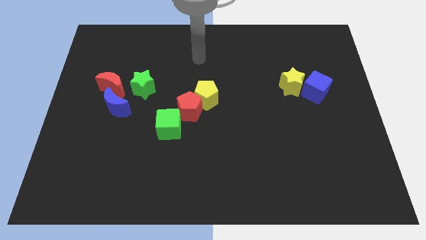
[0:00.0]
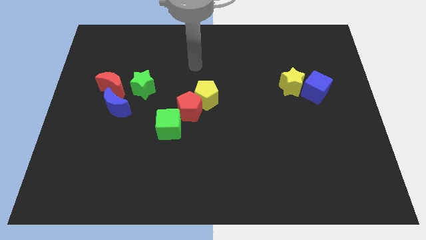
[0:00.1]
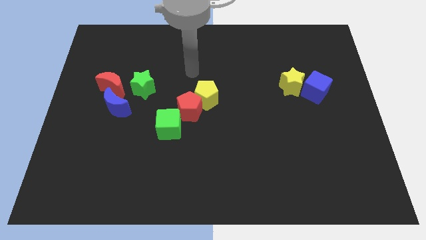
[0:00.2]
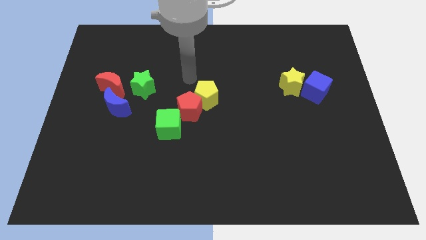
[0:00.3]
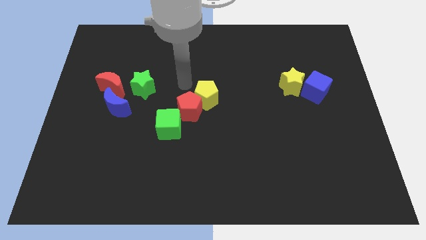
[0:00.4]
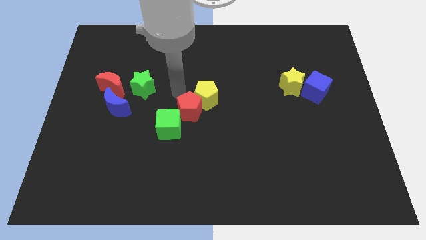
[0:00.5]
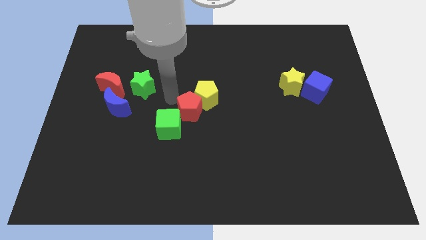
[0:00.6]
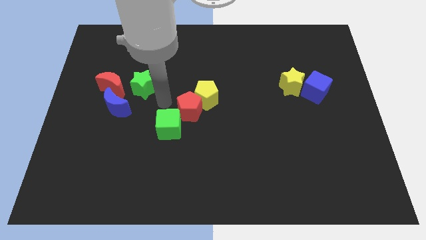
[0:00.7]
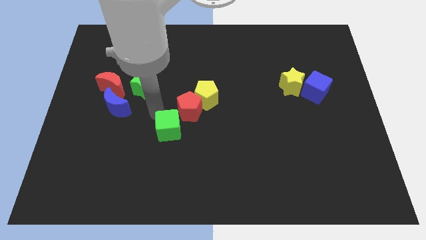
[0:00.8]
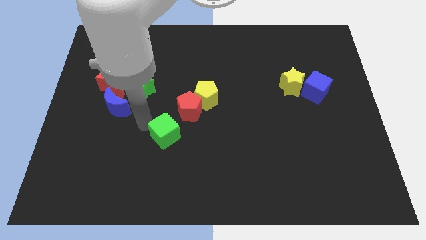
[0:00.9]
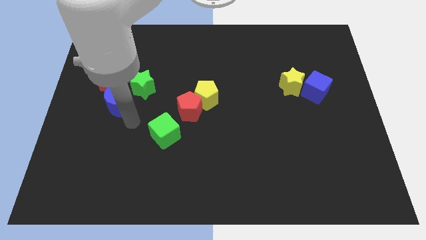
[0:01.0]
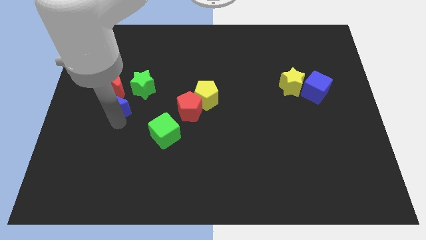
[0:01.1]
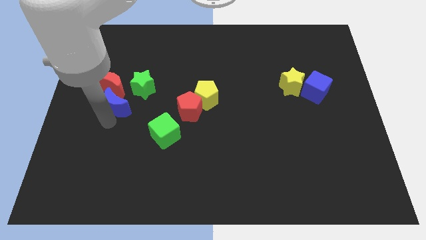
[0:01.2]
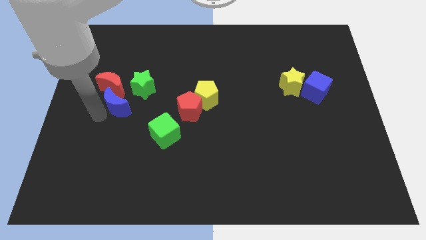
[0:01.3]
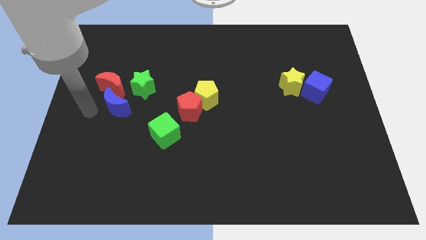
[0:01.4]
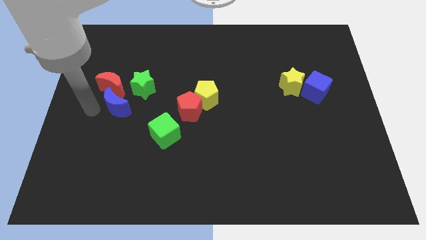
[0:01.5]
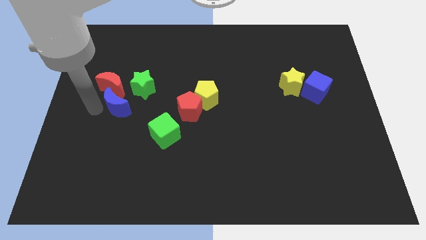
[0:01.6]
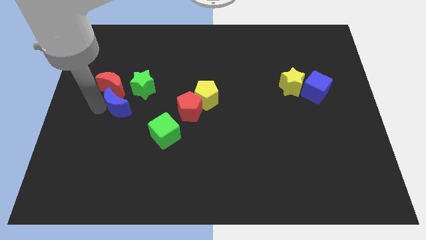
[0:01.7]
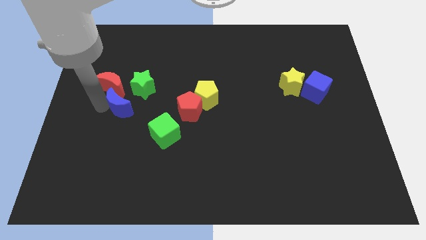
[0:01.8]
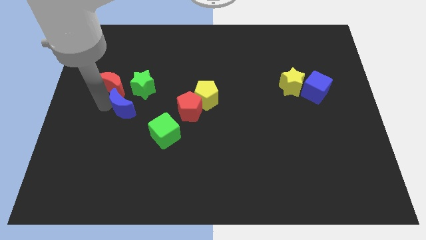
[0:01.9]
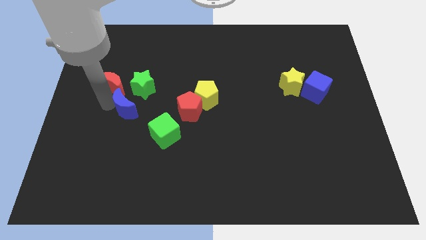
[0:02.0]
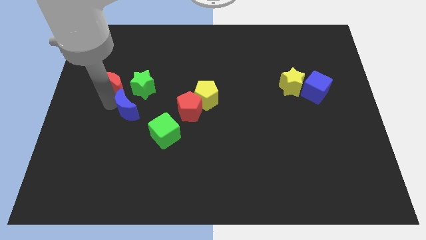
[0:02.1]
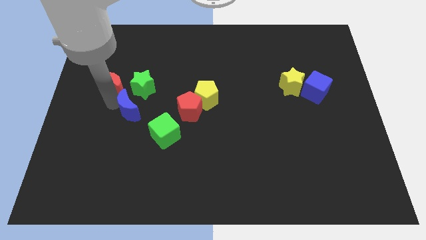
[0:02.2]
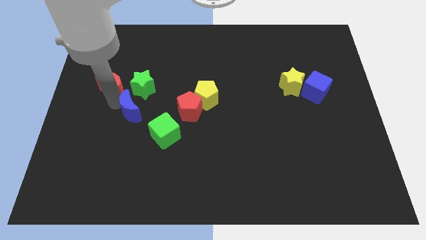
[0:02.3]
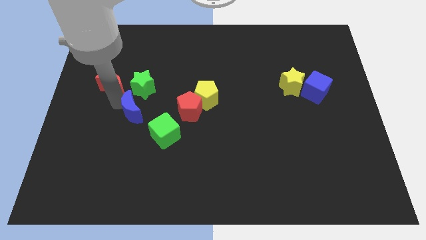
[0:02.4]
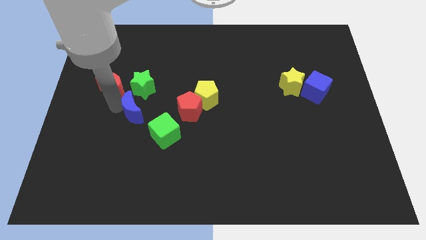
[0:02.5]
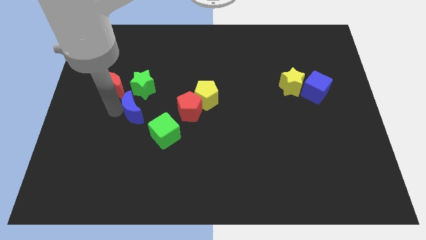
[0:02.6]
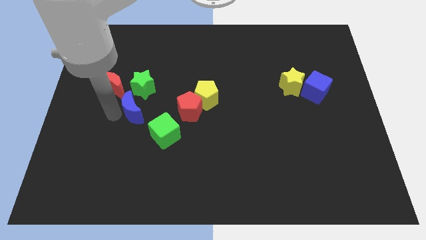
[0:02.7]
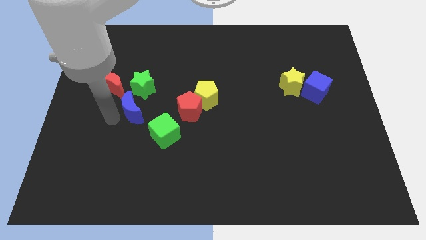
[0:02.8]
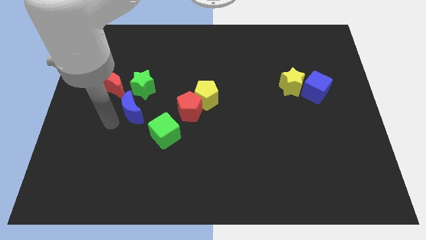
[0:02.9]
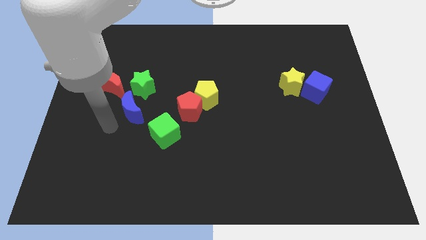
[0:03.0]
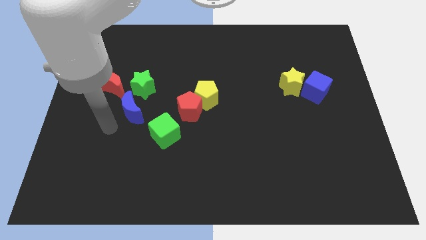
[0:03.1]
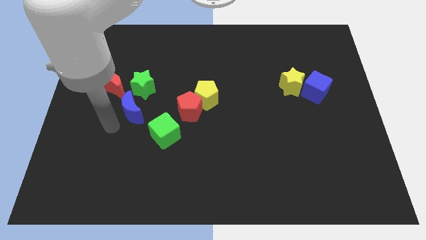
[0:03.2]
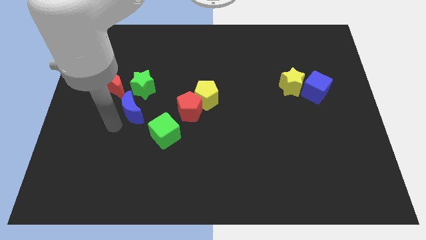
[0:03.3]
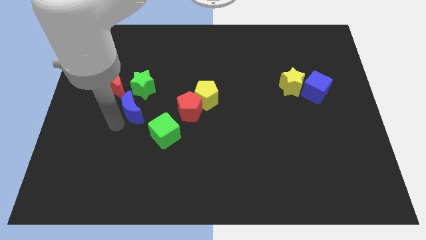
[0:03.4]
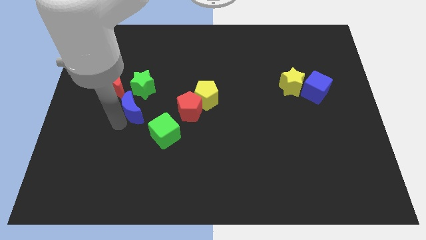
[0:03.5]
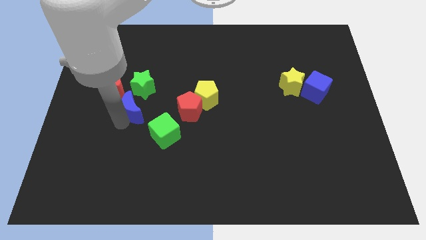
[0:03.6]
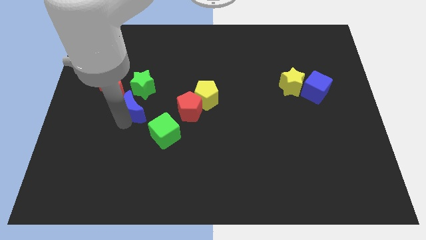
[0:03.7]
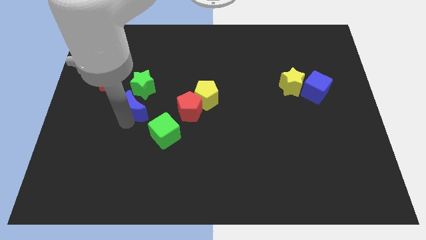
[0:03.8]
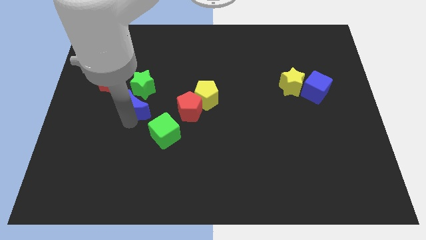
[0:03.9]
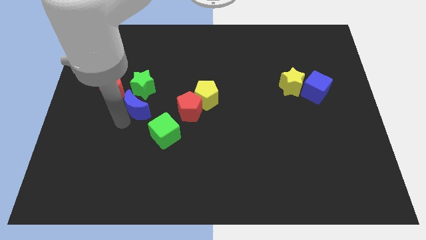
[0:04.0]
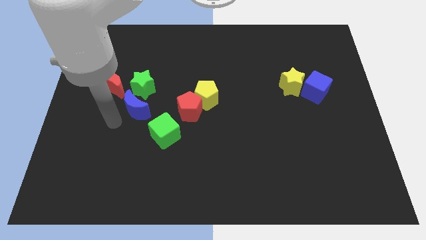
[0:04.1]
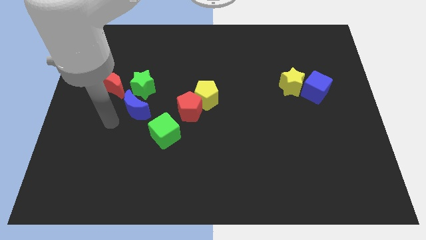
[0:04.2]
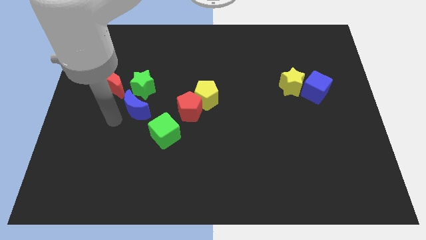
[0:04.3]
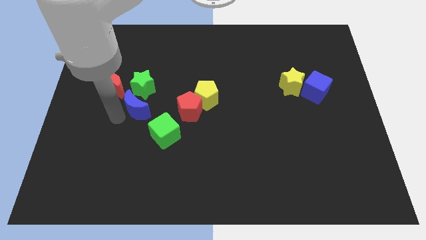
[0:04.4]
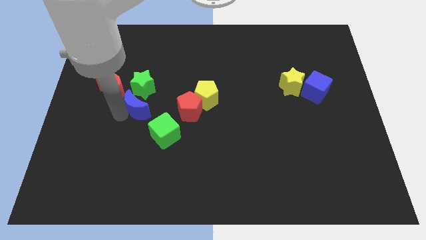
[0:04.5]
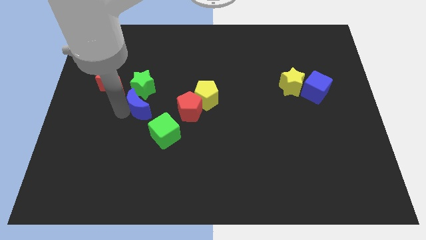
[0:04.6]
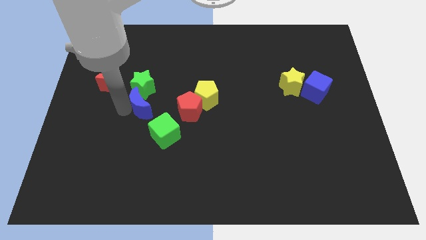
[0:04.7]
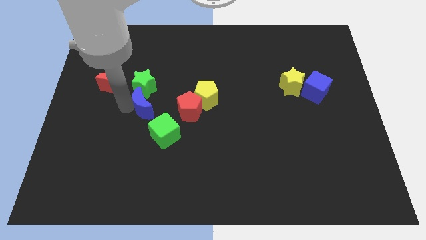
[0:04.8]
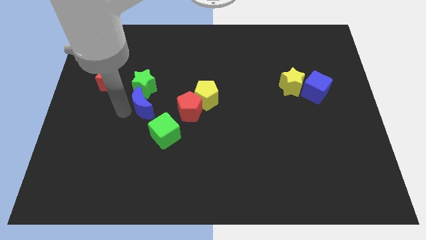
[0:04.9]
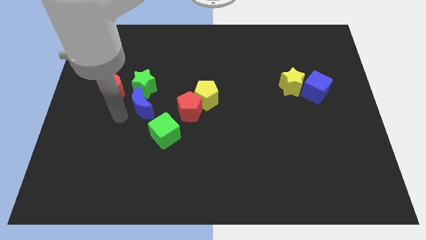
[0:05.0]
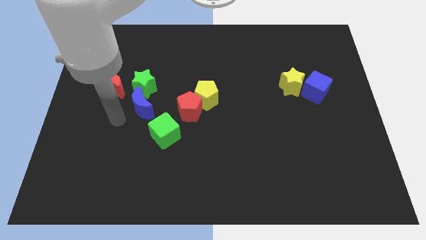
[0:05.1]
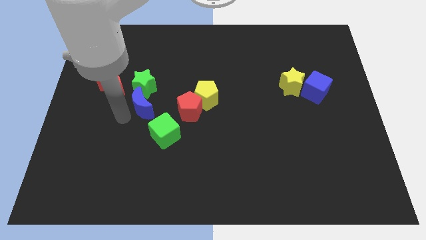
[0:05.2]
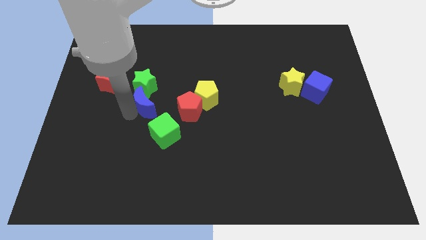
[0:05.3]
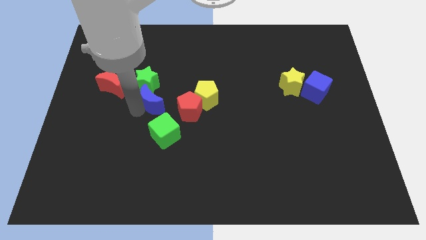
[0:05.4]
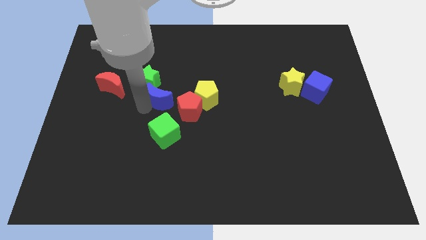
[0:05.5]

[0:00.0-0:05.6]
move the blue moon diagonally up and to the left of the red pentagon

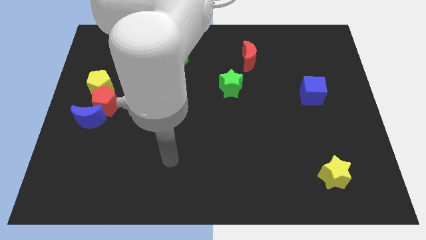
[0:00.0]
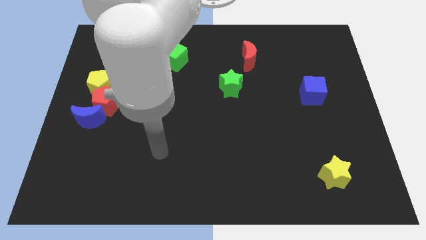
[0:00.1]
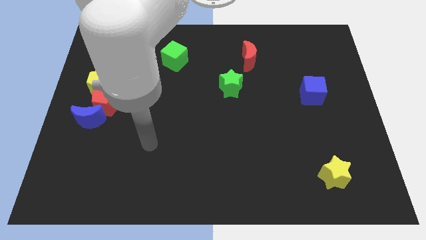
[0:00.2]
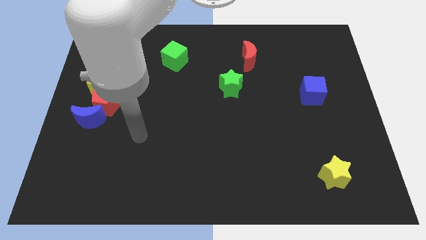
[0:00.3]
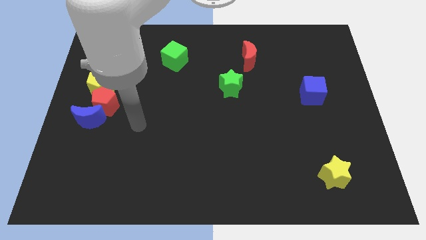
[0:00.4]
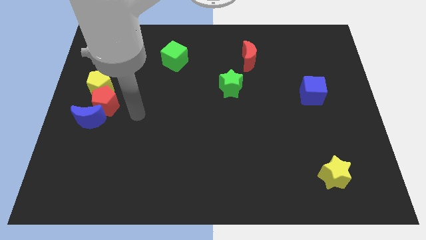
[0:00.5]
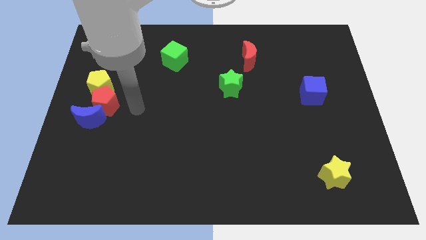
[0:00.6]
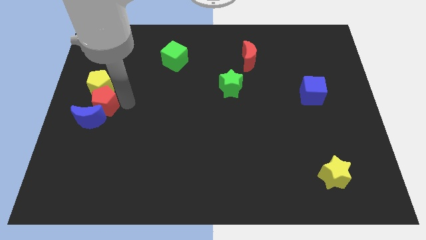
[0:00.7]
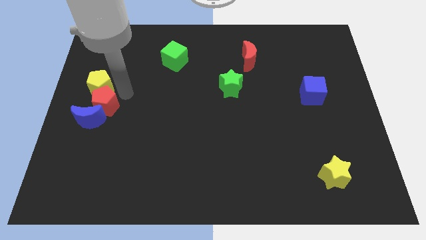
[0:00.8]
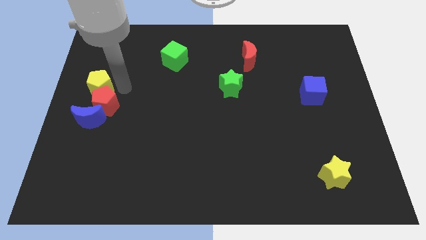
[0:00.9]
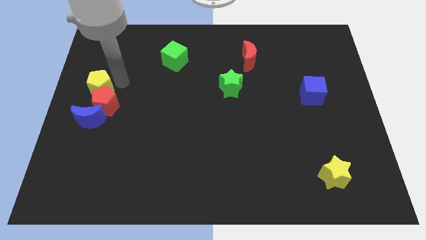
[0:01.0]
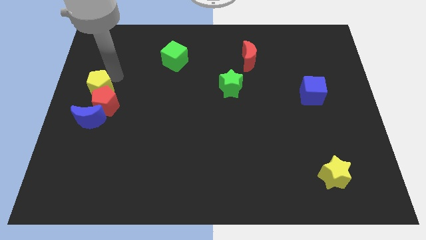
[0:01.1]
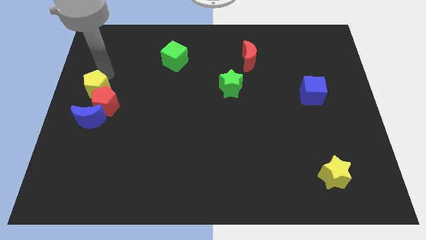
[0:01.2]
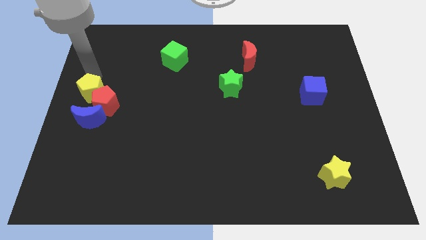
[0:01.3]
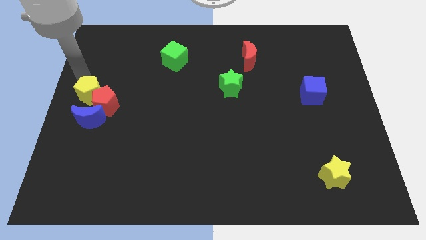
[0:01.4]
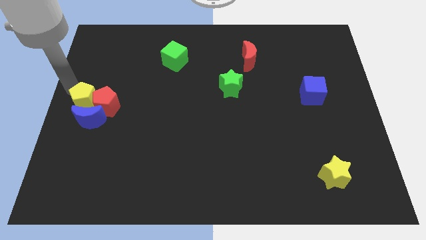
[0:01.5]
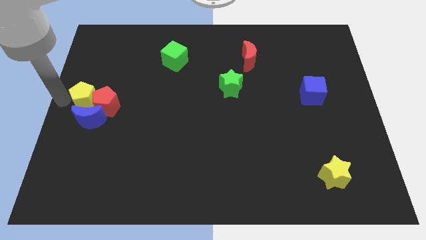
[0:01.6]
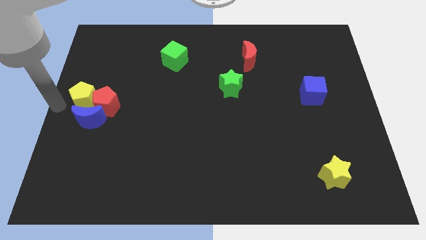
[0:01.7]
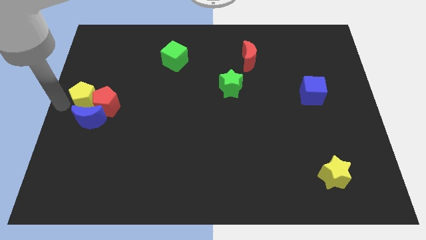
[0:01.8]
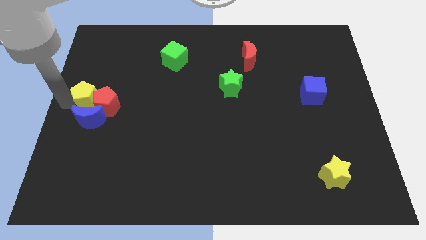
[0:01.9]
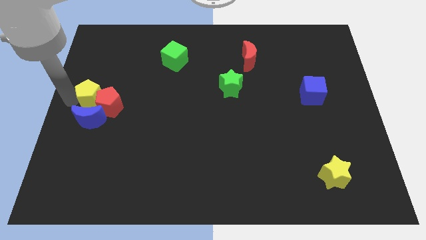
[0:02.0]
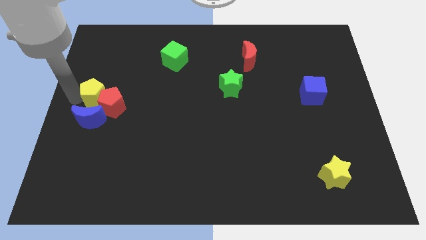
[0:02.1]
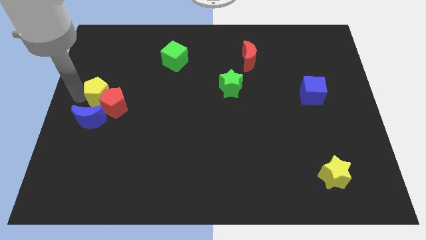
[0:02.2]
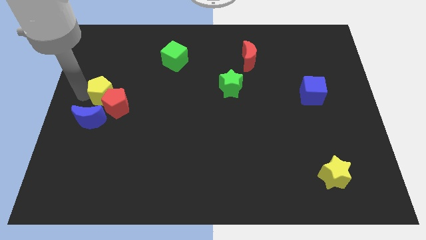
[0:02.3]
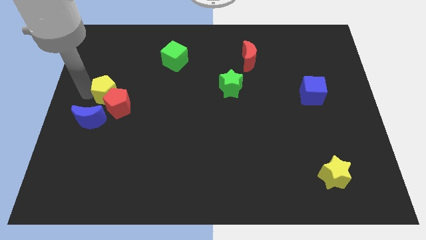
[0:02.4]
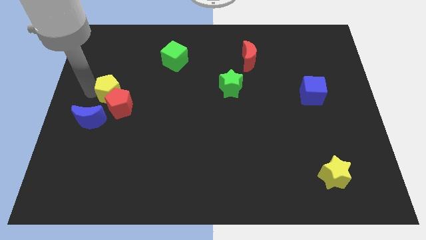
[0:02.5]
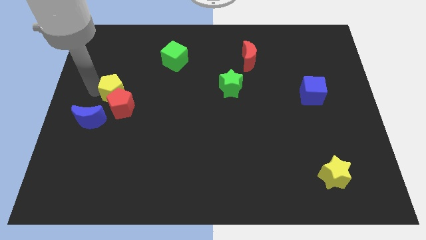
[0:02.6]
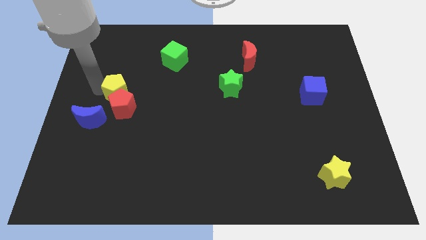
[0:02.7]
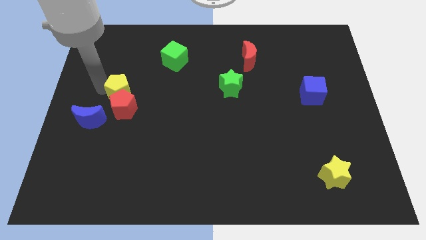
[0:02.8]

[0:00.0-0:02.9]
slide the yellow pentagon diagonally up and to the right of the red pentagon
